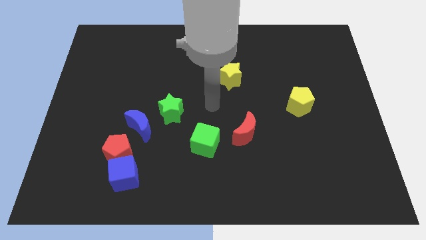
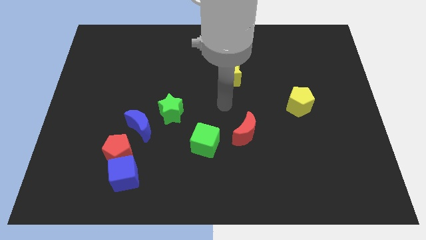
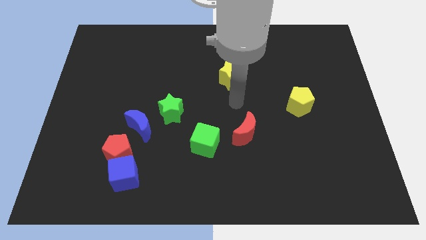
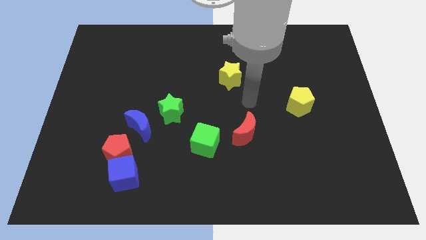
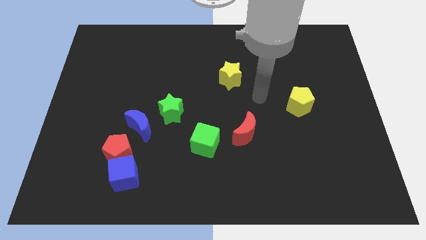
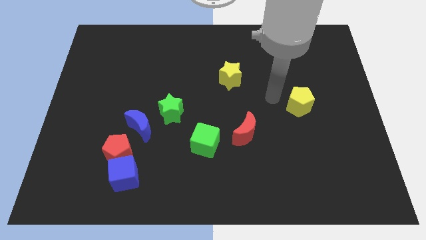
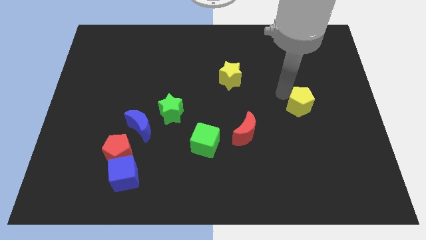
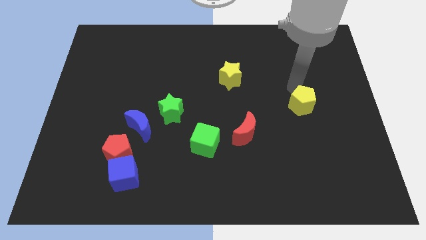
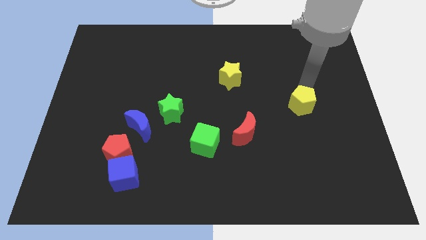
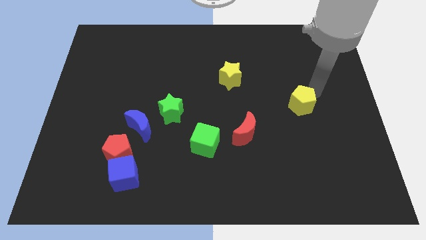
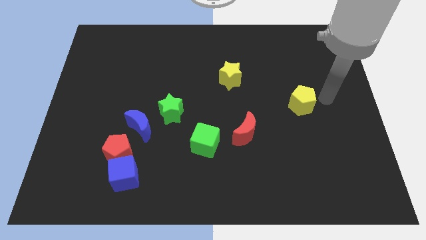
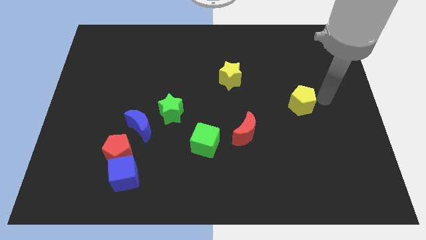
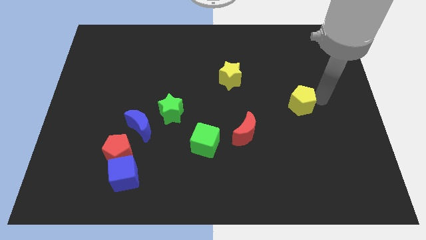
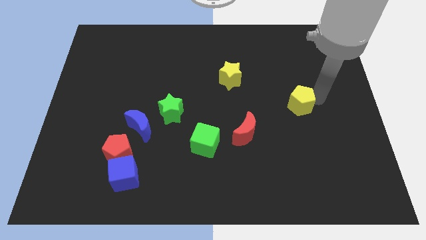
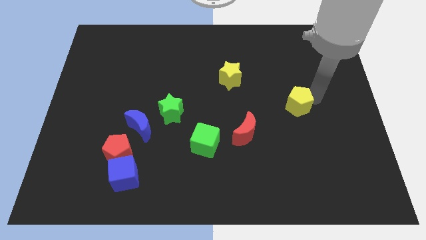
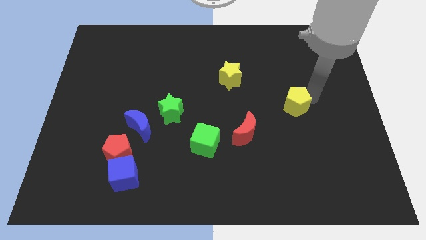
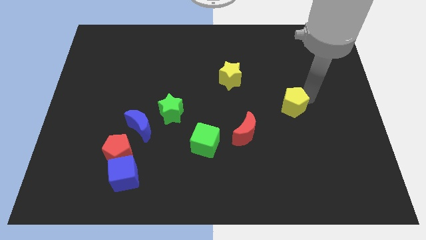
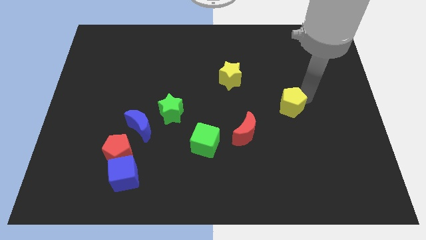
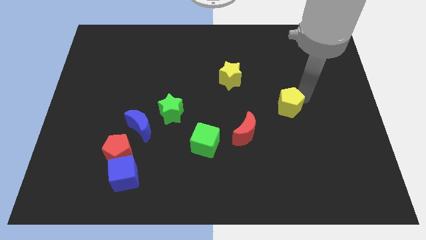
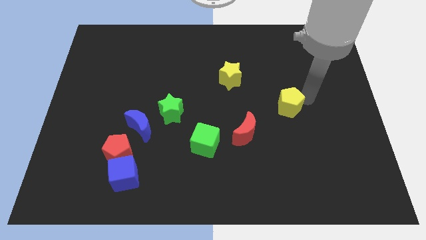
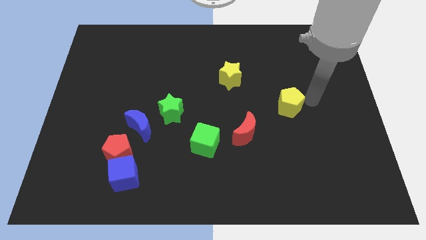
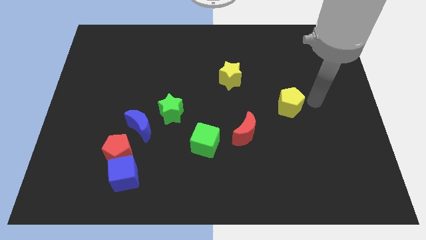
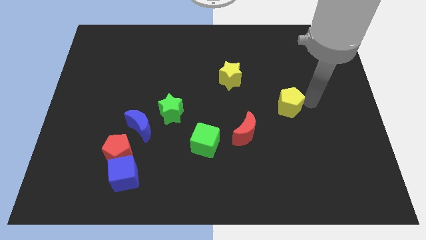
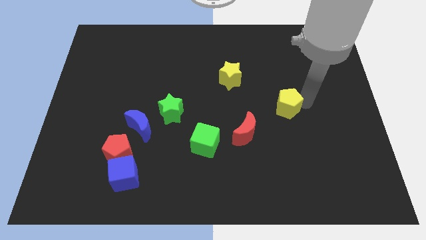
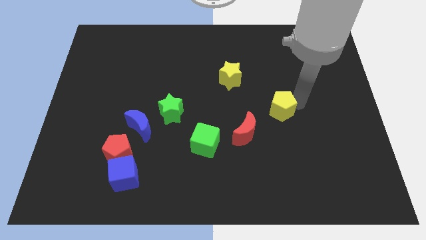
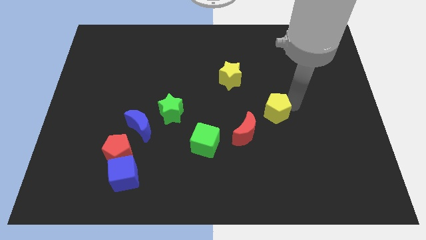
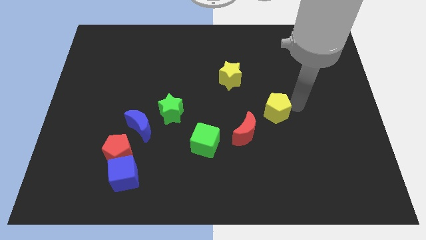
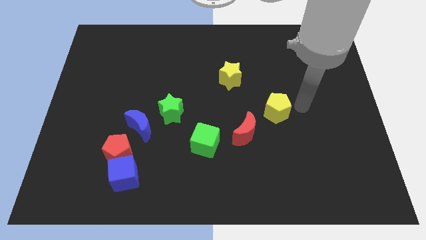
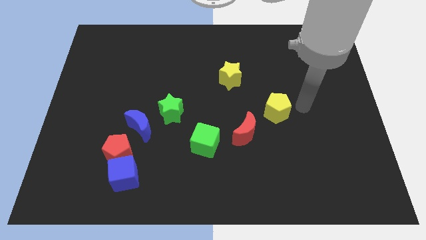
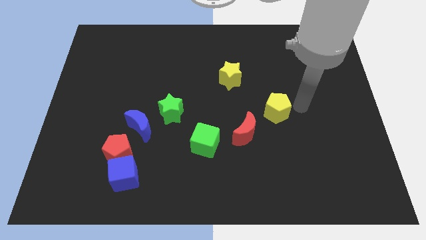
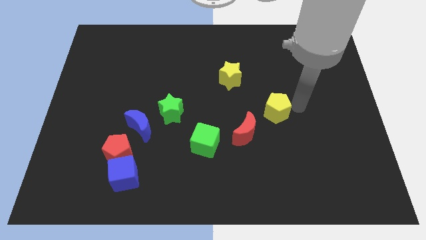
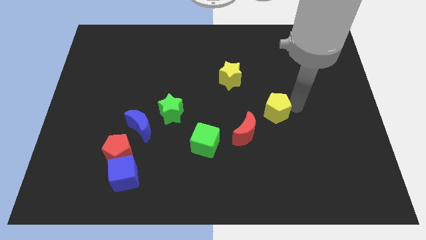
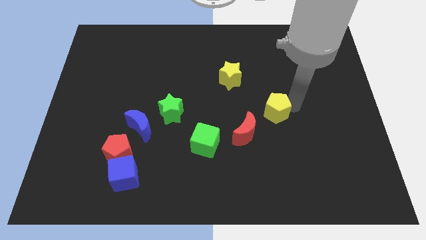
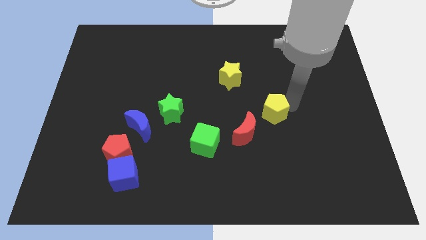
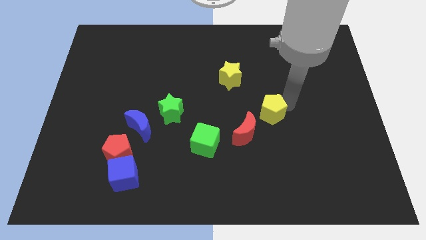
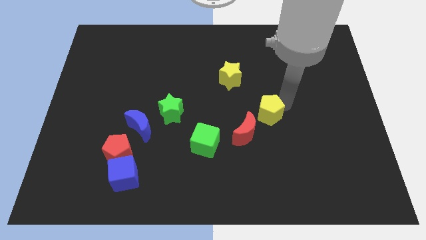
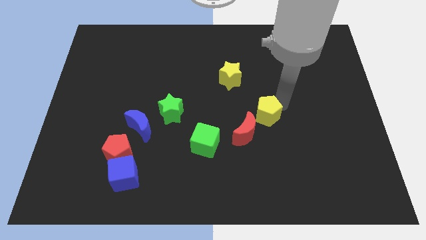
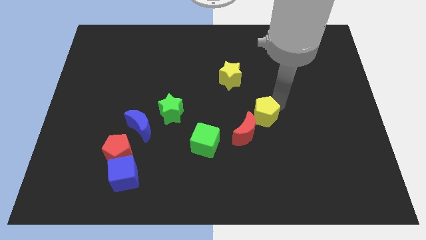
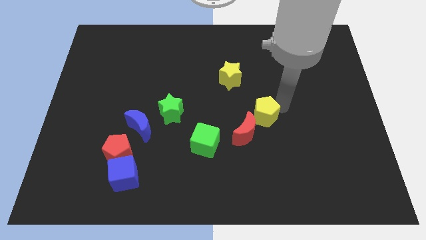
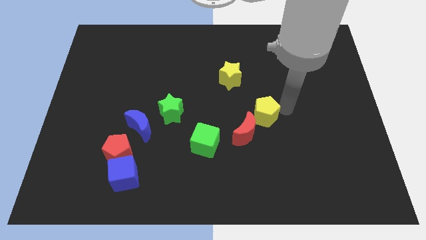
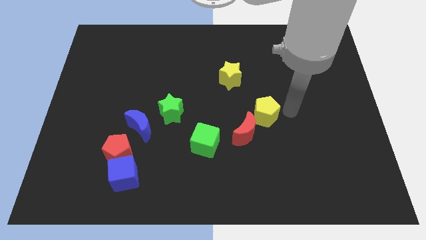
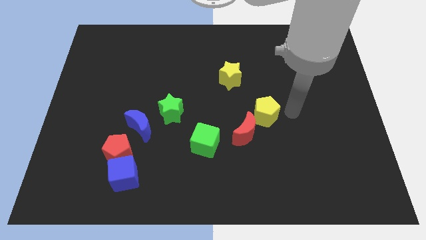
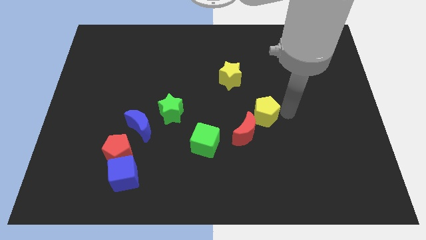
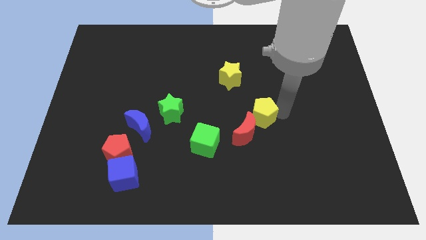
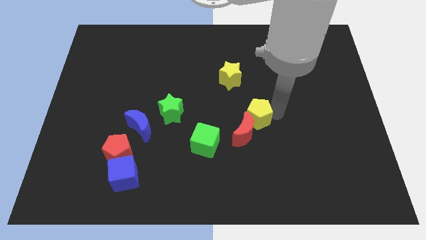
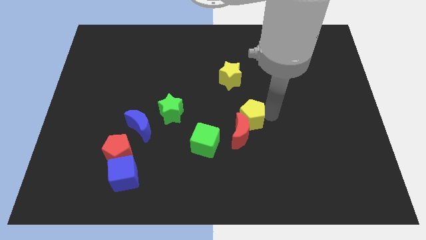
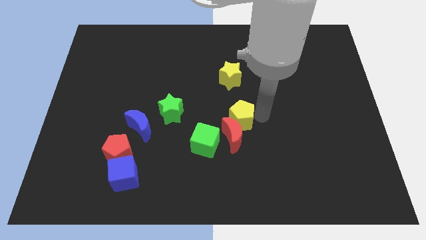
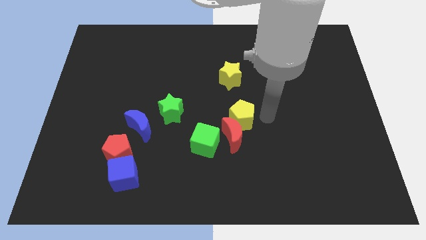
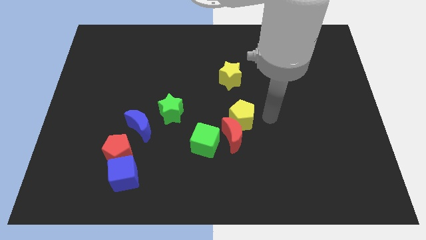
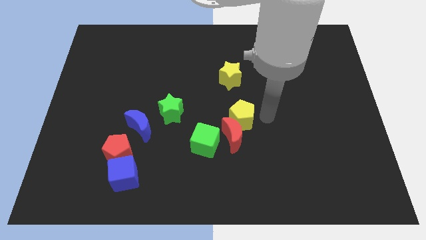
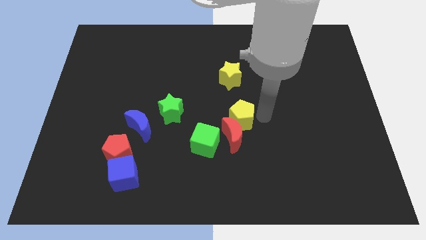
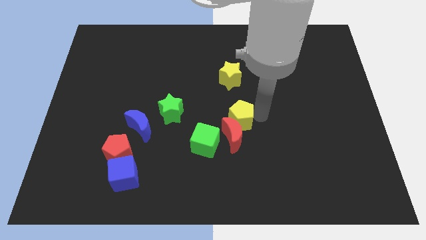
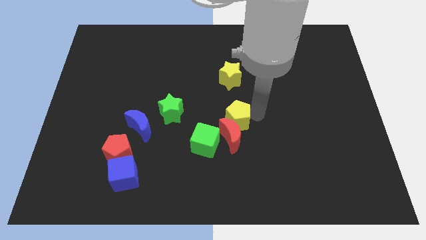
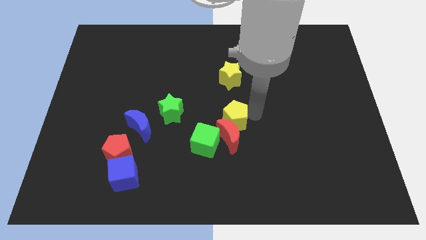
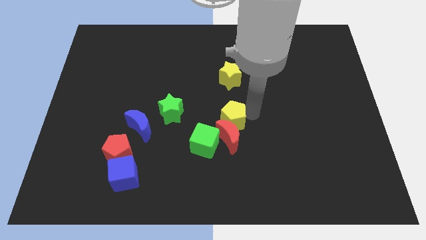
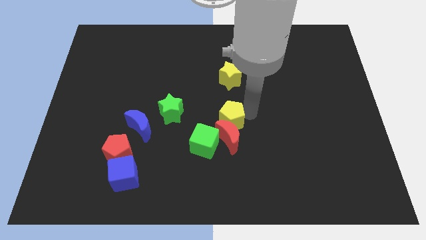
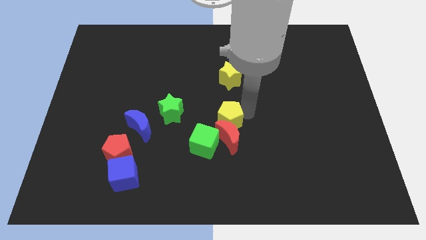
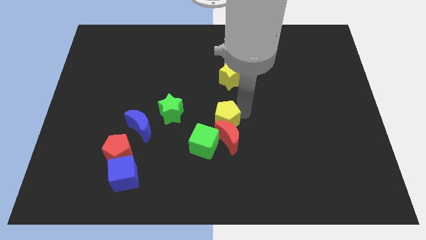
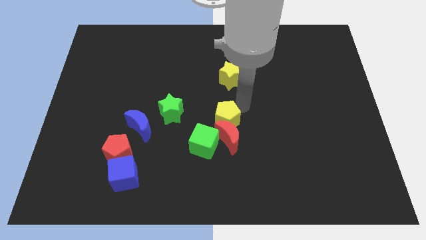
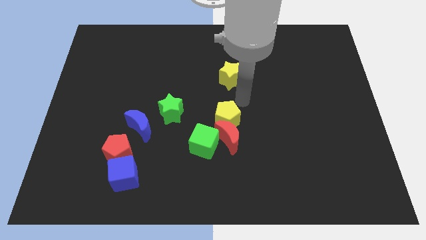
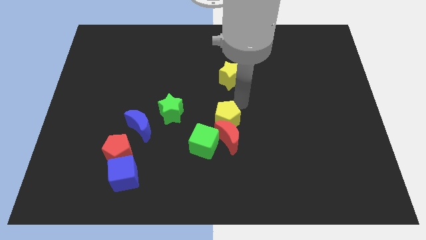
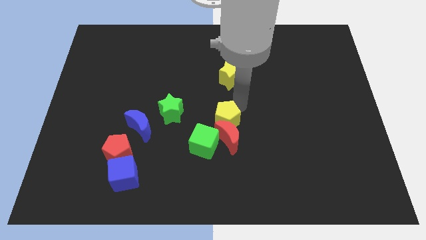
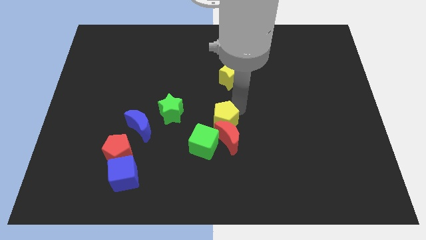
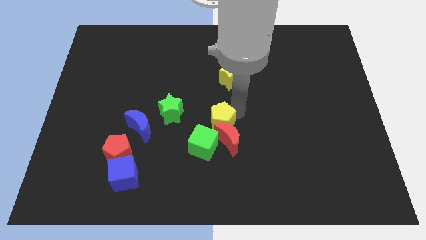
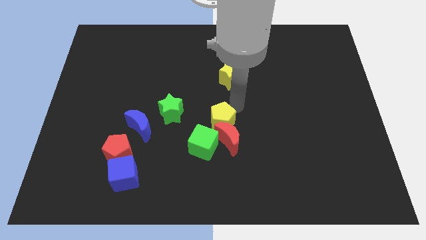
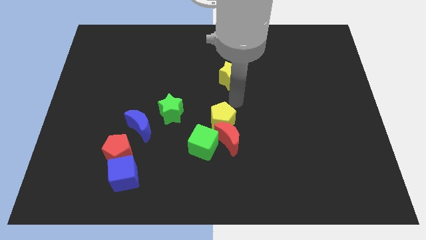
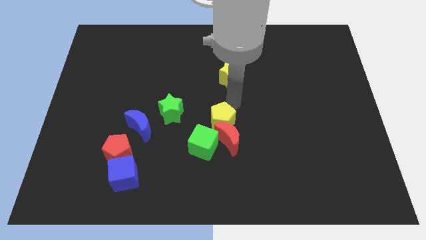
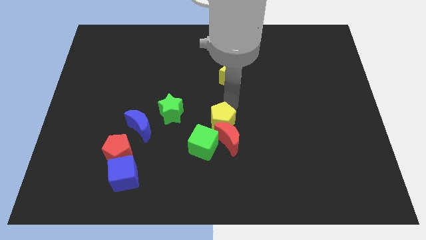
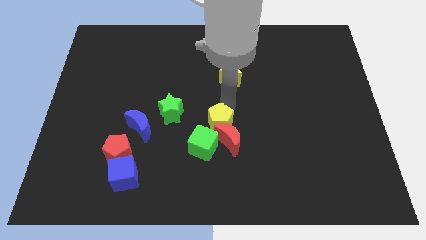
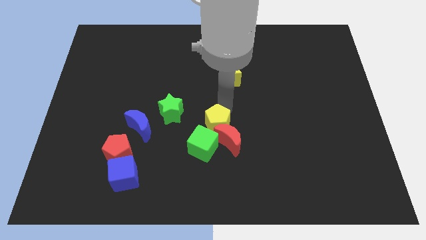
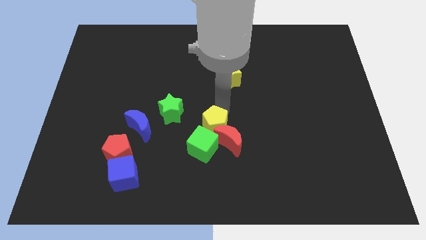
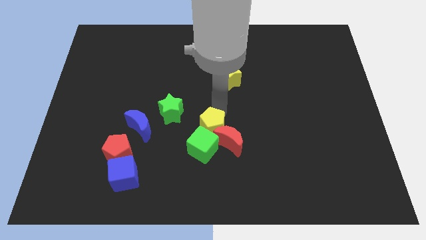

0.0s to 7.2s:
push the yellow pentagon next to the green cube

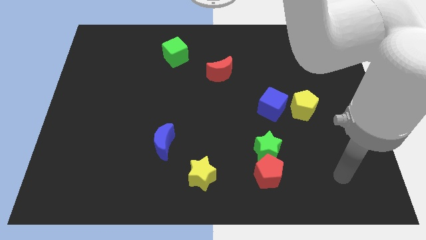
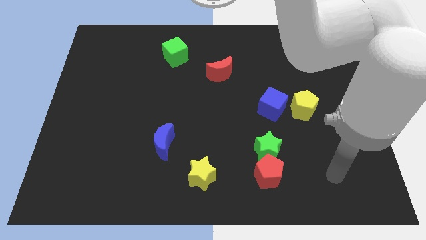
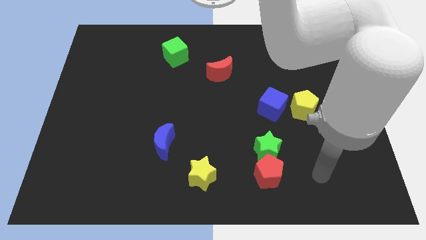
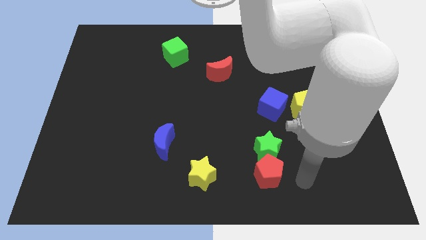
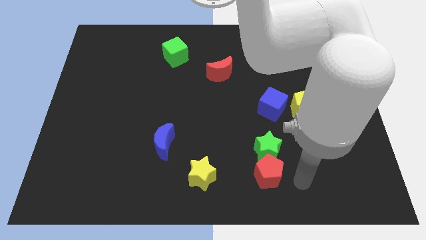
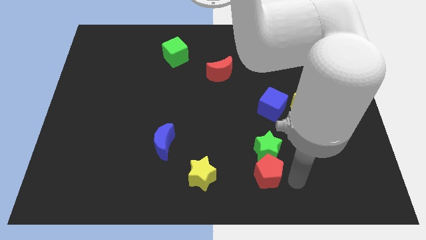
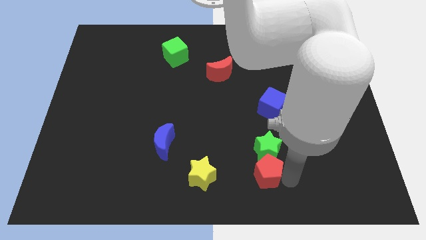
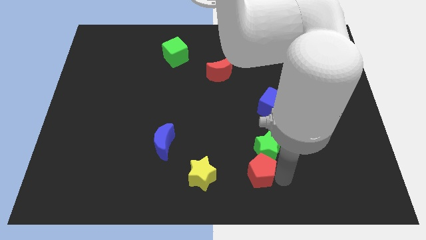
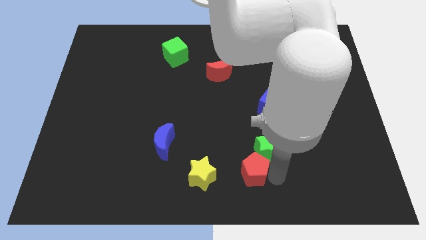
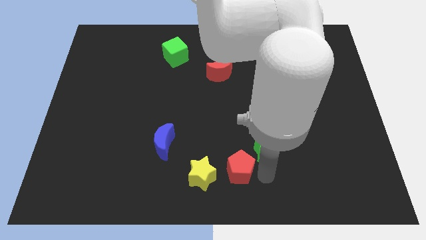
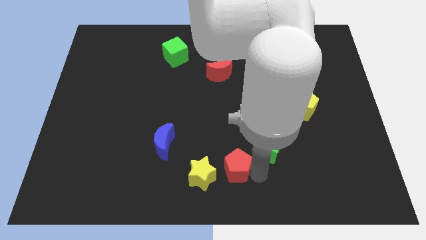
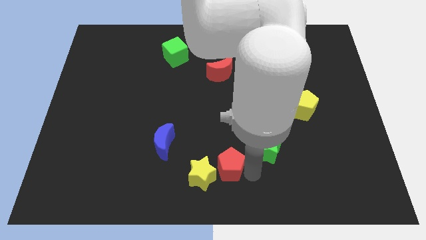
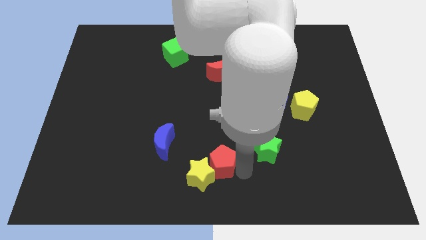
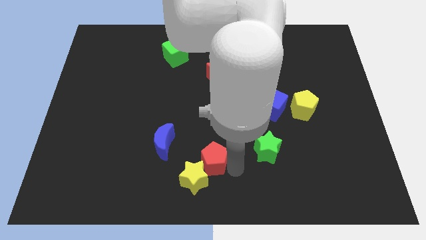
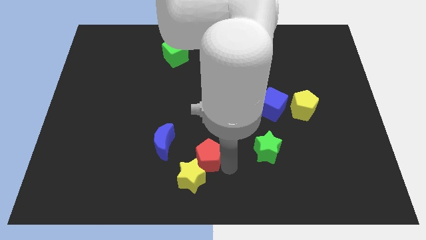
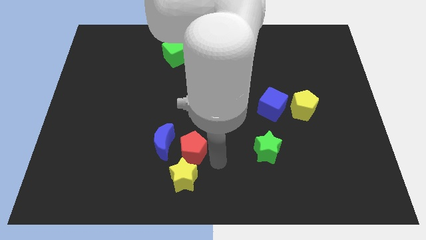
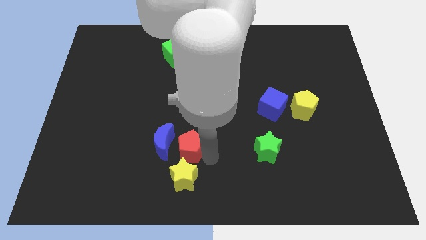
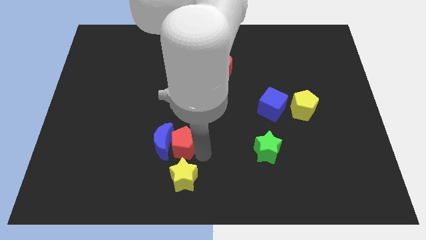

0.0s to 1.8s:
move the red pentagon towards the blue moon
